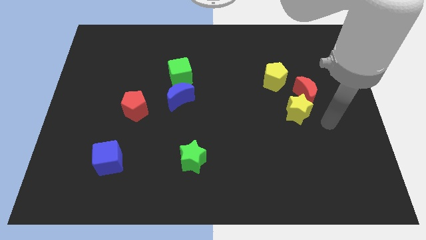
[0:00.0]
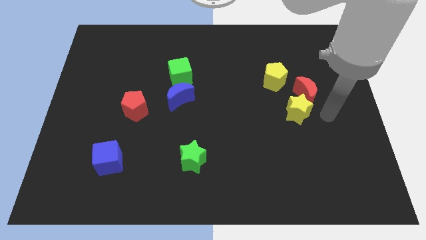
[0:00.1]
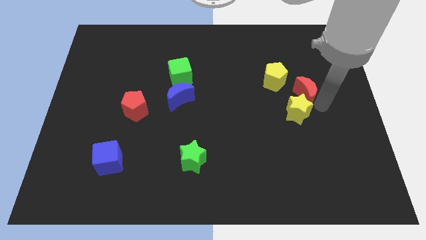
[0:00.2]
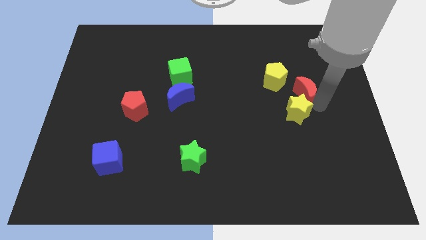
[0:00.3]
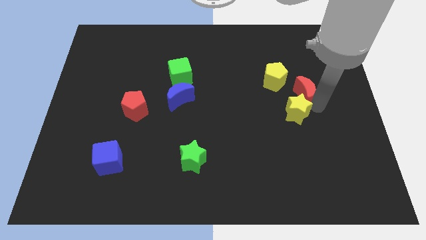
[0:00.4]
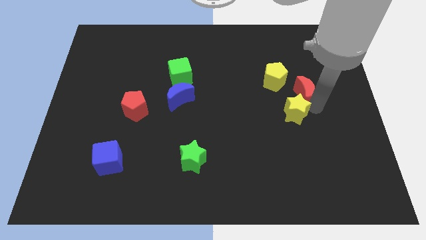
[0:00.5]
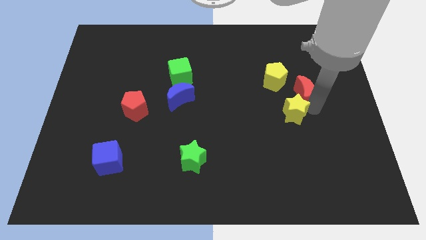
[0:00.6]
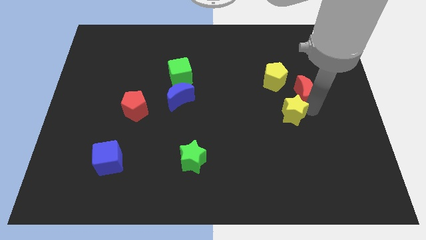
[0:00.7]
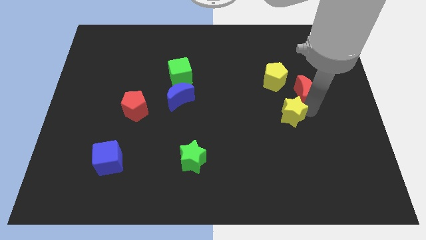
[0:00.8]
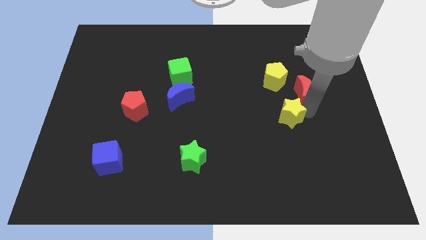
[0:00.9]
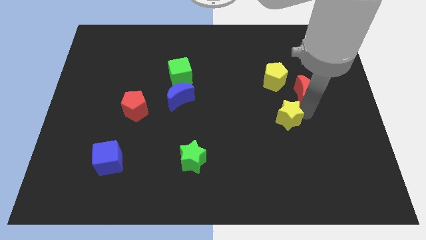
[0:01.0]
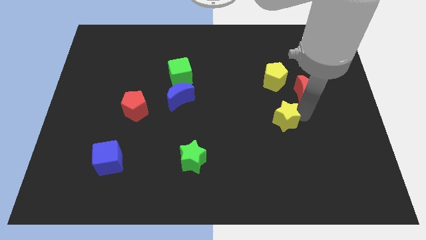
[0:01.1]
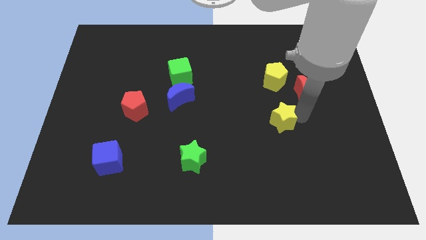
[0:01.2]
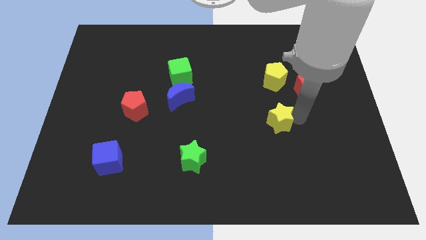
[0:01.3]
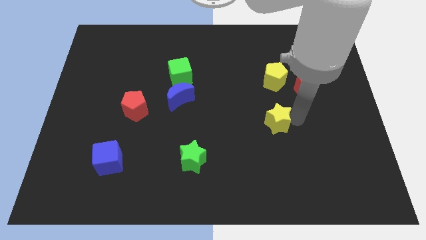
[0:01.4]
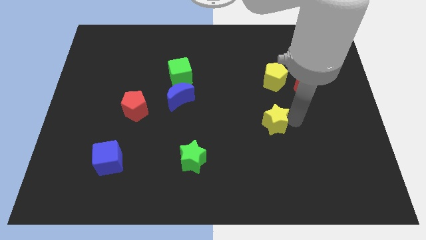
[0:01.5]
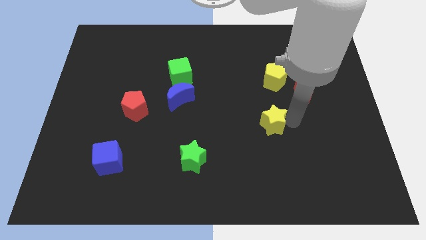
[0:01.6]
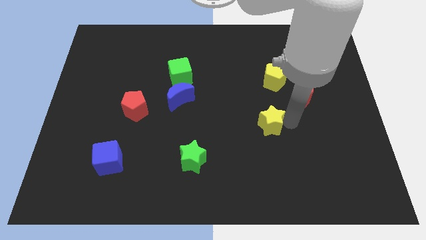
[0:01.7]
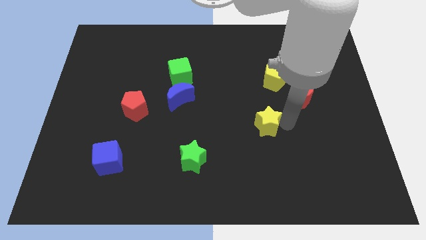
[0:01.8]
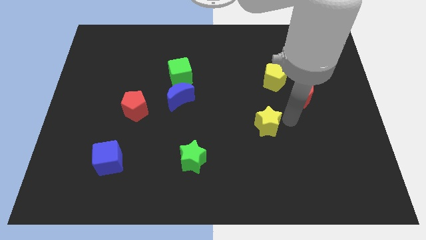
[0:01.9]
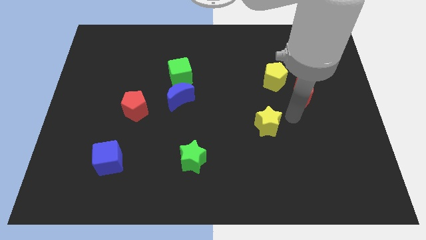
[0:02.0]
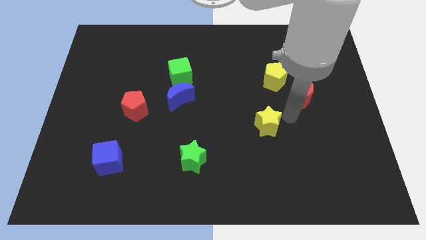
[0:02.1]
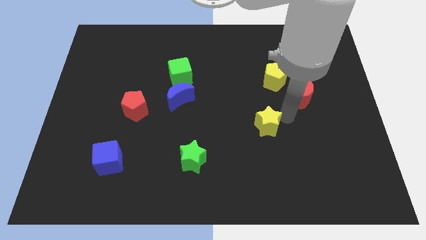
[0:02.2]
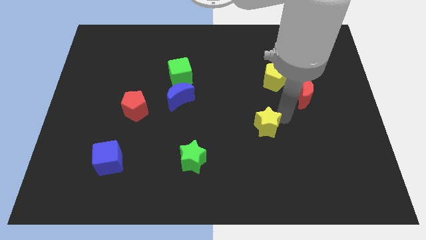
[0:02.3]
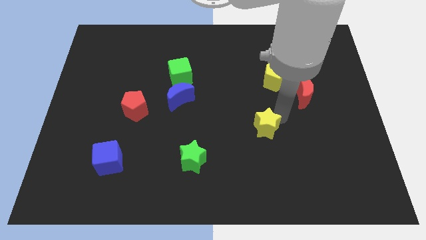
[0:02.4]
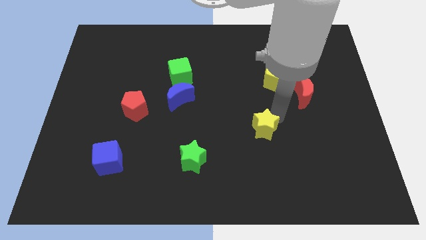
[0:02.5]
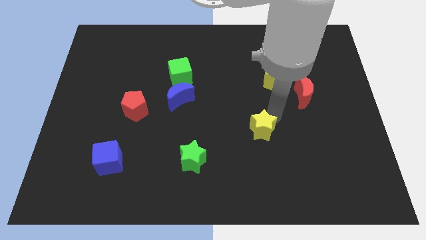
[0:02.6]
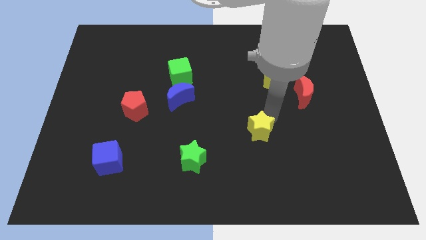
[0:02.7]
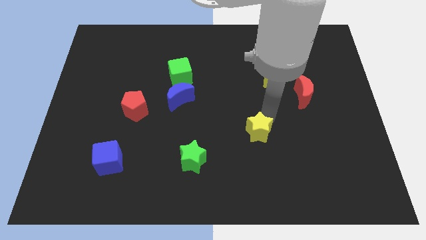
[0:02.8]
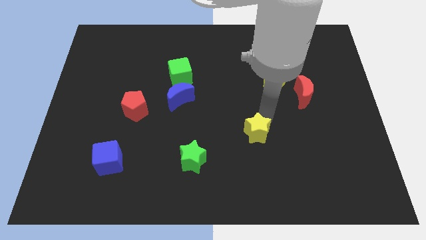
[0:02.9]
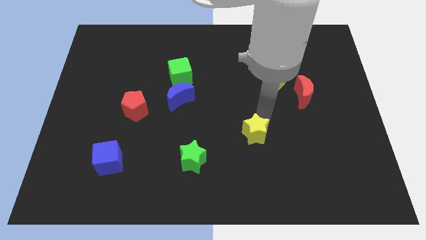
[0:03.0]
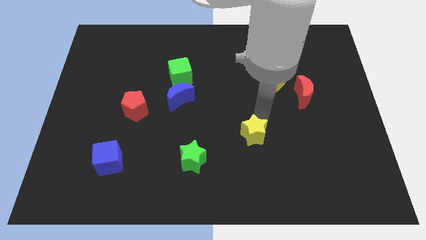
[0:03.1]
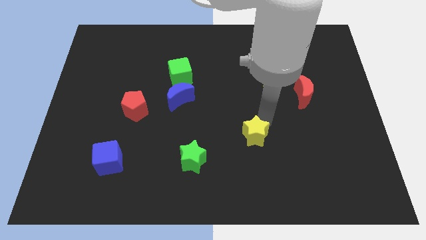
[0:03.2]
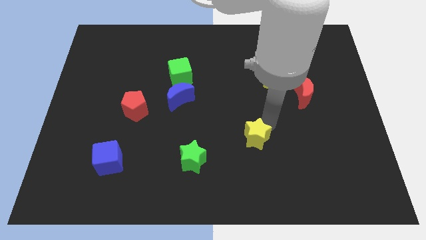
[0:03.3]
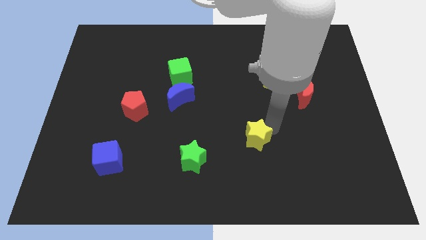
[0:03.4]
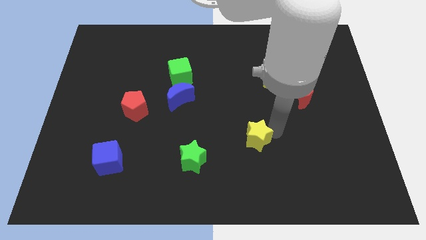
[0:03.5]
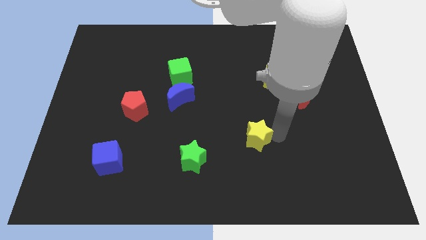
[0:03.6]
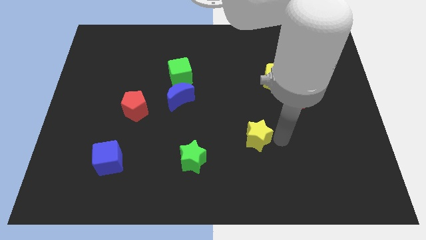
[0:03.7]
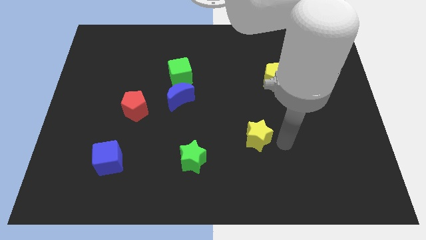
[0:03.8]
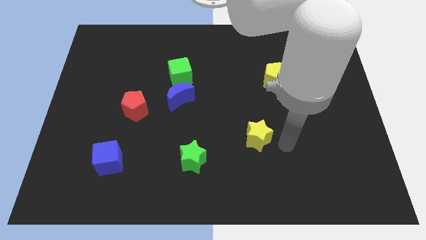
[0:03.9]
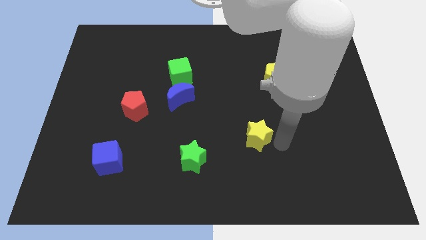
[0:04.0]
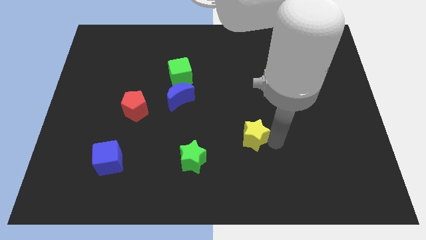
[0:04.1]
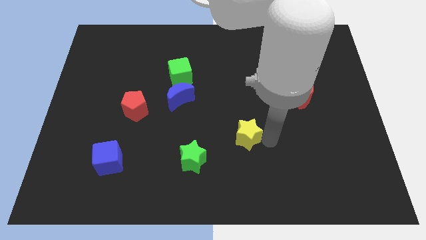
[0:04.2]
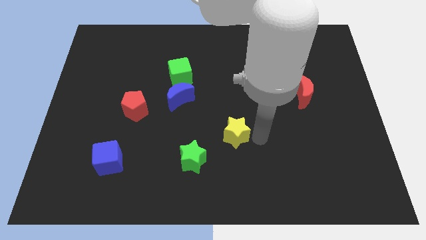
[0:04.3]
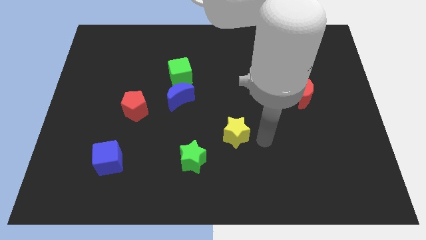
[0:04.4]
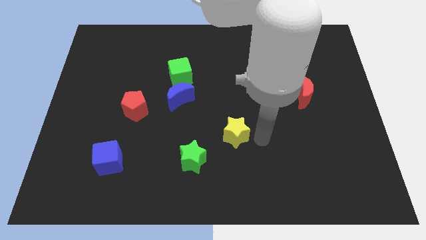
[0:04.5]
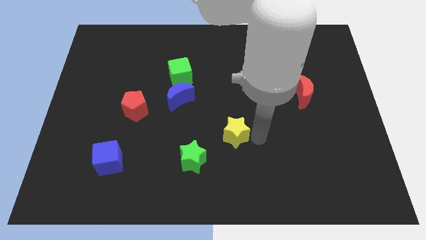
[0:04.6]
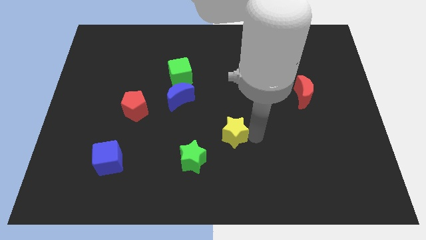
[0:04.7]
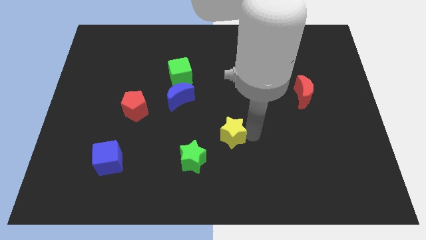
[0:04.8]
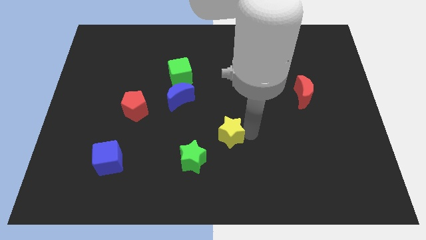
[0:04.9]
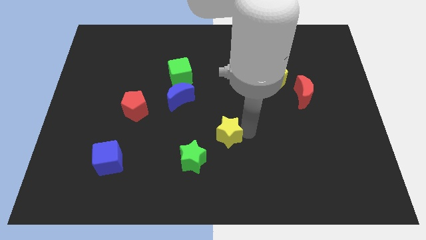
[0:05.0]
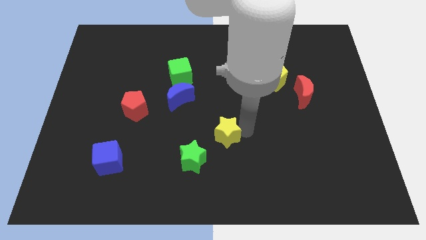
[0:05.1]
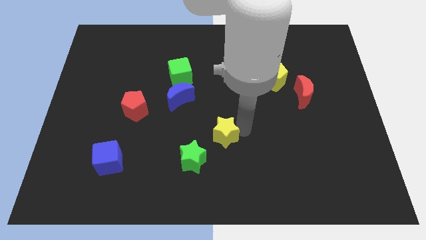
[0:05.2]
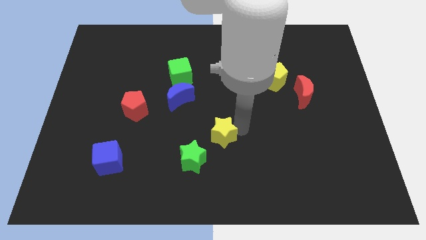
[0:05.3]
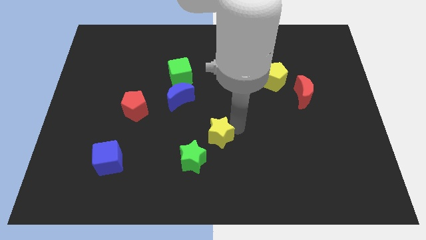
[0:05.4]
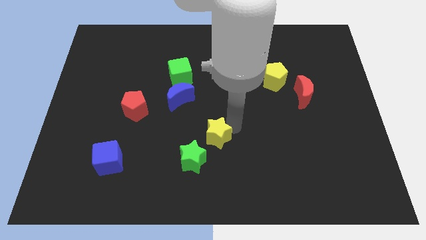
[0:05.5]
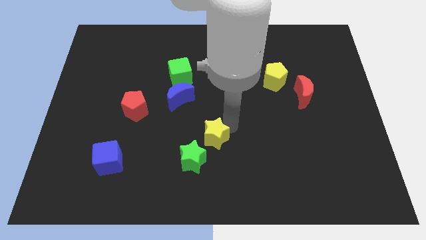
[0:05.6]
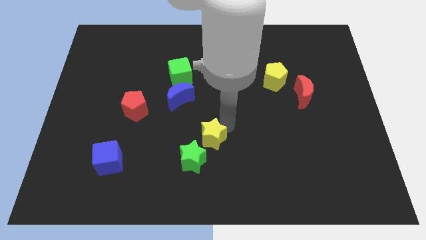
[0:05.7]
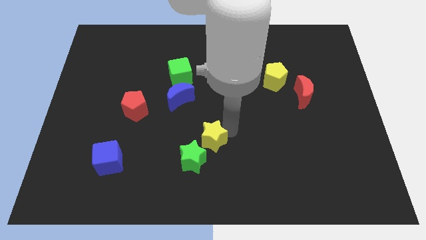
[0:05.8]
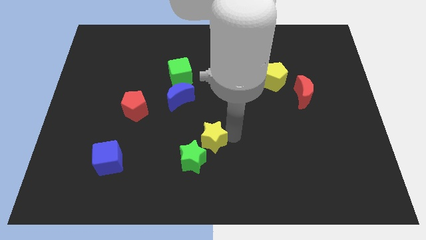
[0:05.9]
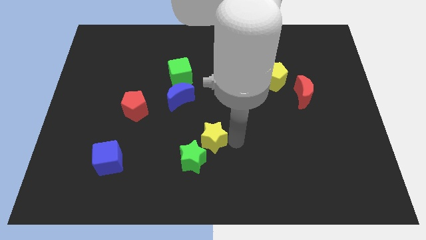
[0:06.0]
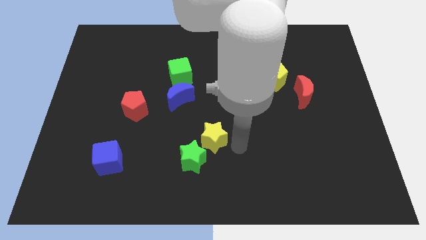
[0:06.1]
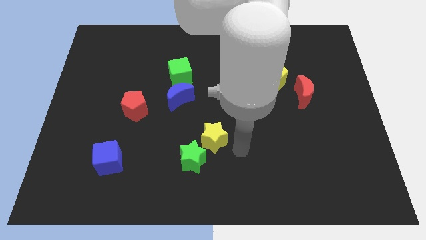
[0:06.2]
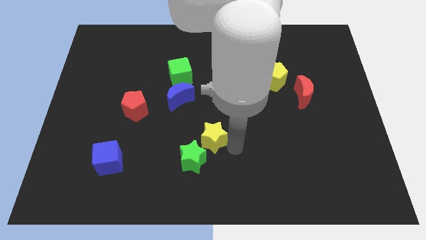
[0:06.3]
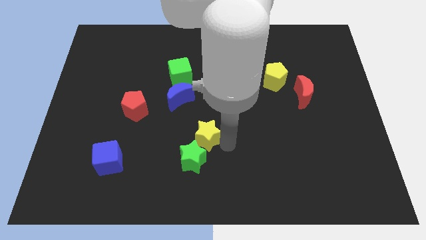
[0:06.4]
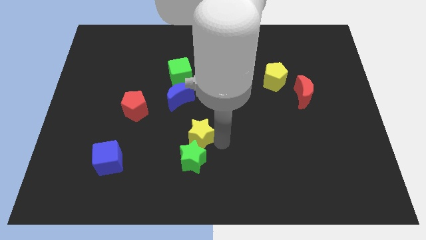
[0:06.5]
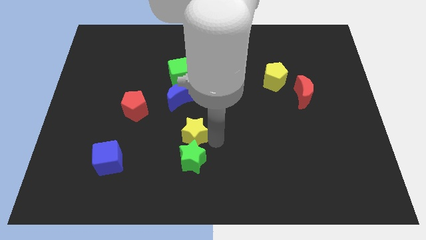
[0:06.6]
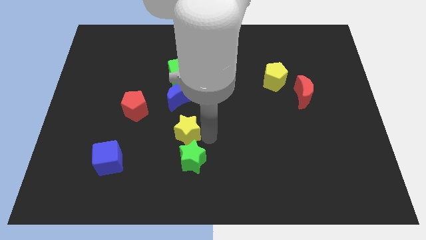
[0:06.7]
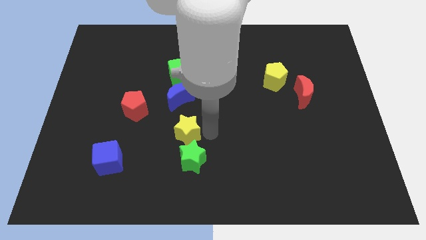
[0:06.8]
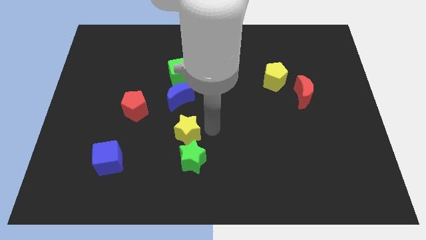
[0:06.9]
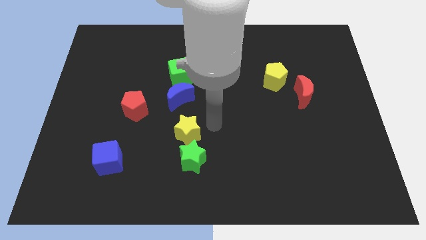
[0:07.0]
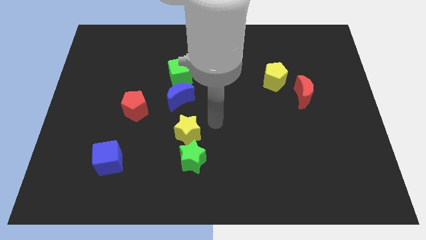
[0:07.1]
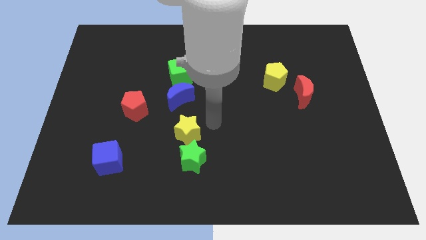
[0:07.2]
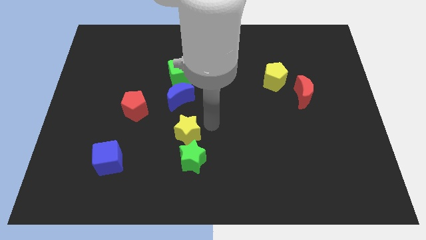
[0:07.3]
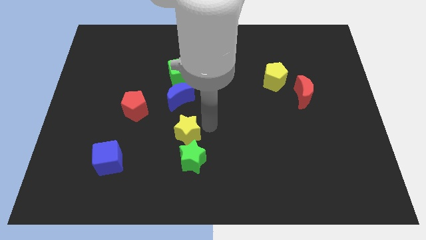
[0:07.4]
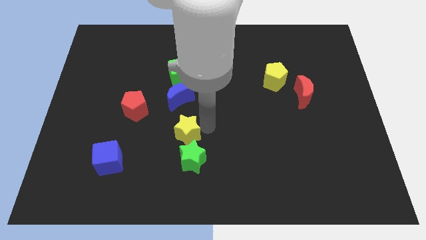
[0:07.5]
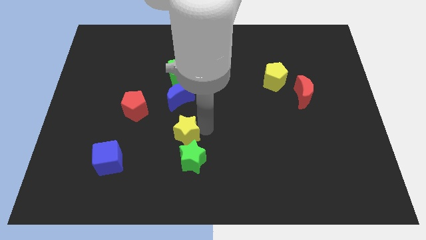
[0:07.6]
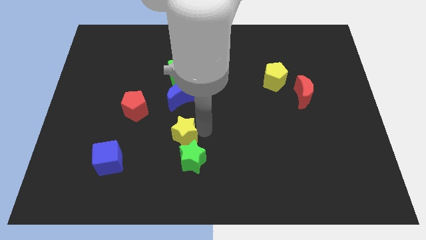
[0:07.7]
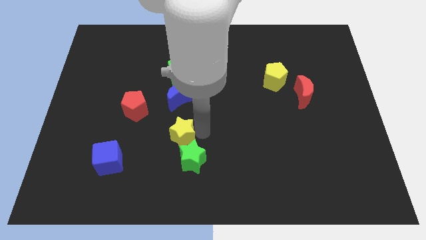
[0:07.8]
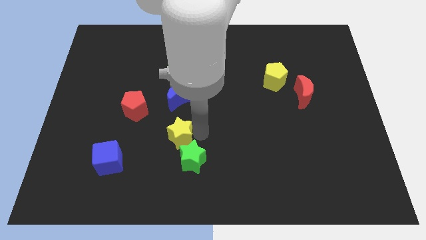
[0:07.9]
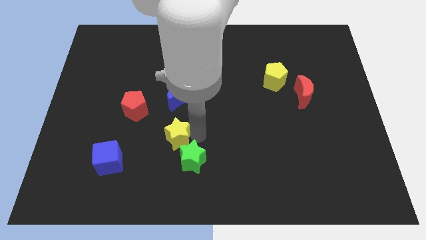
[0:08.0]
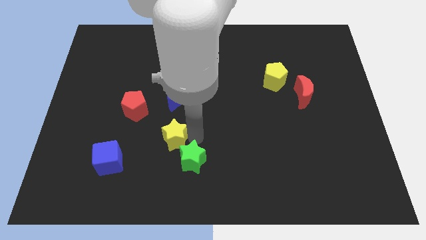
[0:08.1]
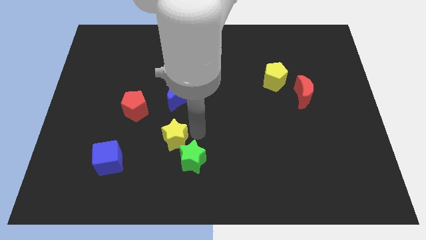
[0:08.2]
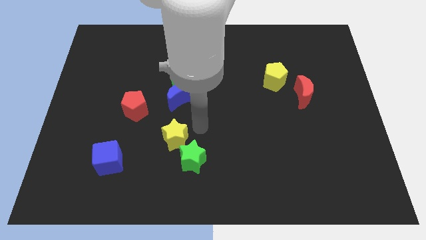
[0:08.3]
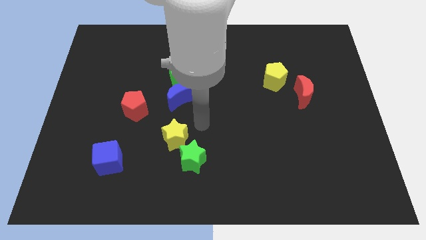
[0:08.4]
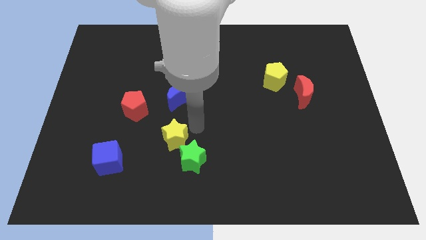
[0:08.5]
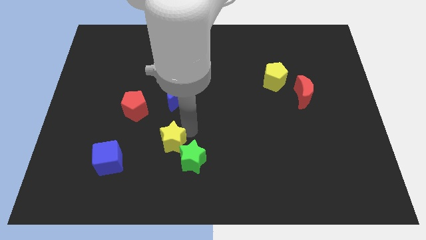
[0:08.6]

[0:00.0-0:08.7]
push the yellow star left of the green star
